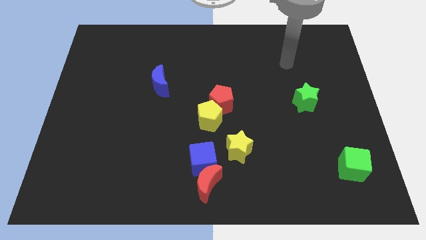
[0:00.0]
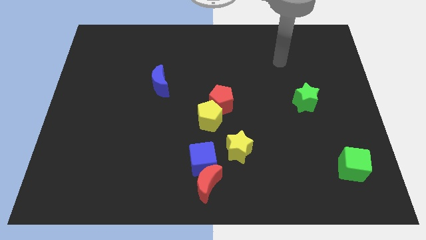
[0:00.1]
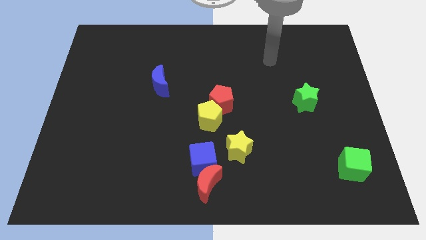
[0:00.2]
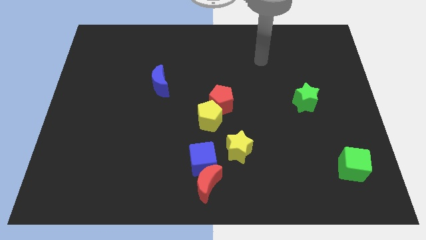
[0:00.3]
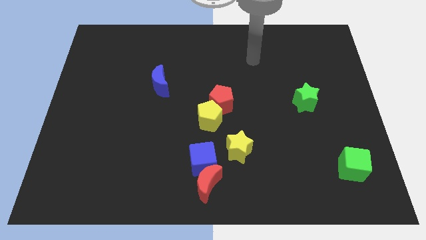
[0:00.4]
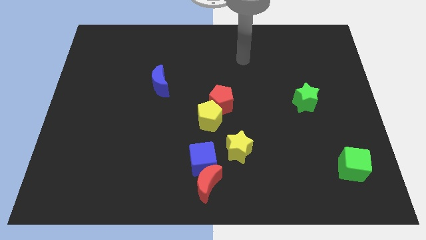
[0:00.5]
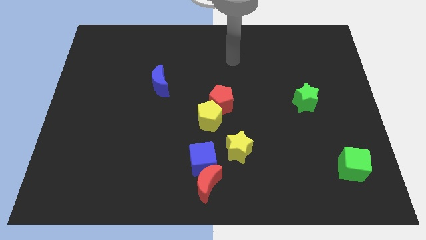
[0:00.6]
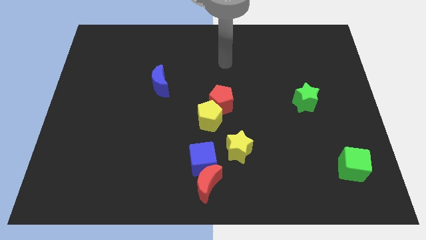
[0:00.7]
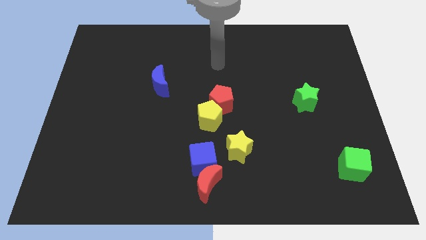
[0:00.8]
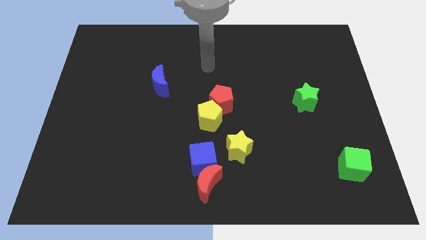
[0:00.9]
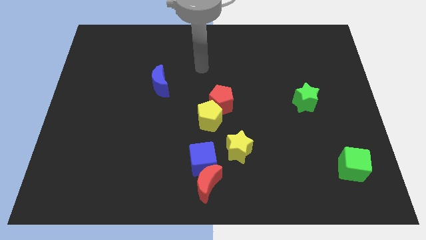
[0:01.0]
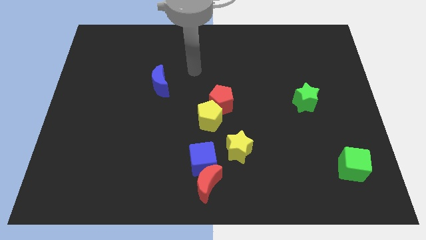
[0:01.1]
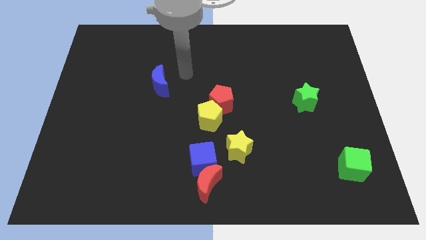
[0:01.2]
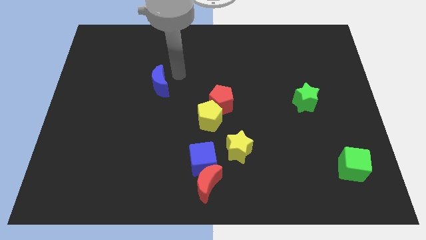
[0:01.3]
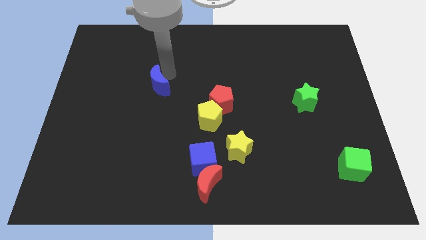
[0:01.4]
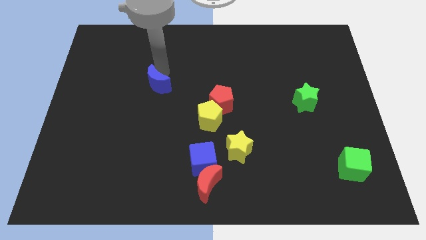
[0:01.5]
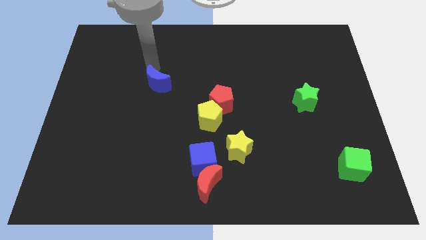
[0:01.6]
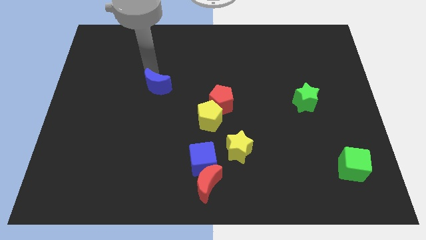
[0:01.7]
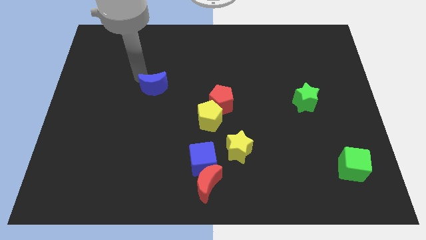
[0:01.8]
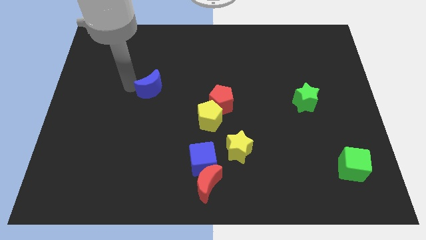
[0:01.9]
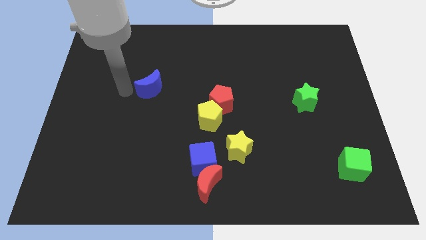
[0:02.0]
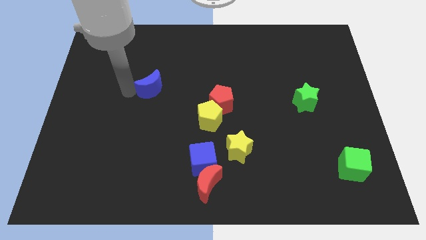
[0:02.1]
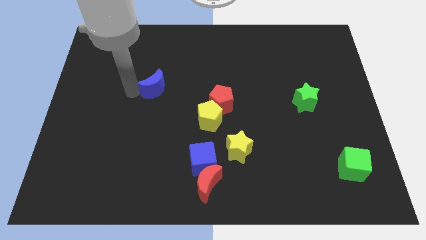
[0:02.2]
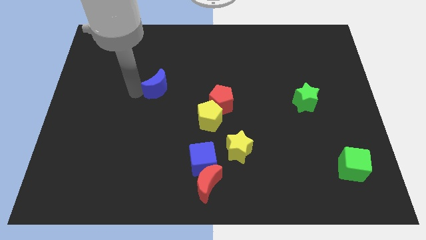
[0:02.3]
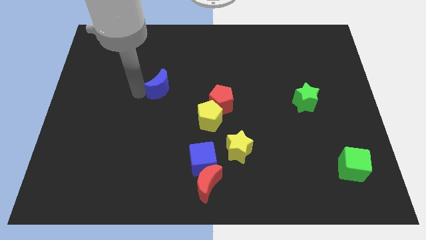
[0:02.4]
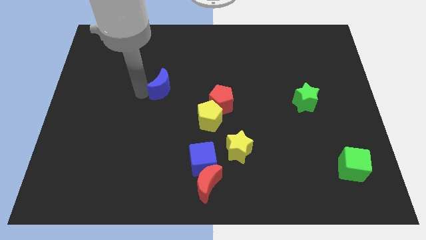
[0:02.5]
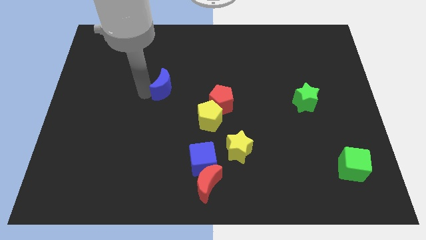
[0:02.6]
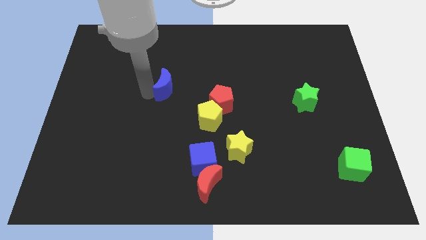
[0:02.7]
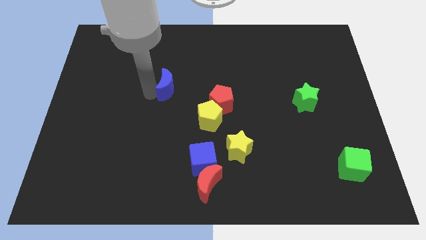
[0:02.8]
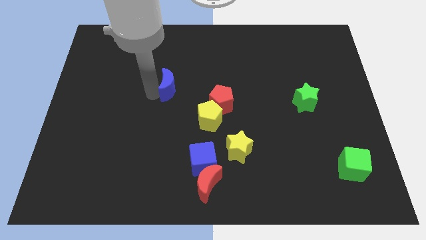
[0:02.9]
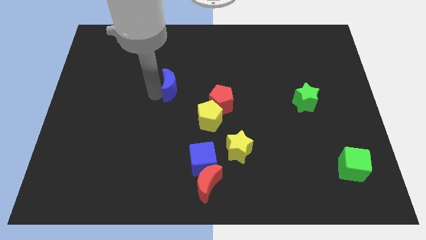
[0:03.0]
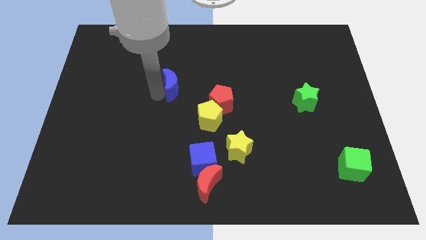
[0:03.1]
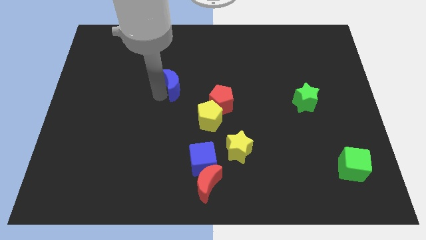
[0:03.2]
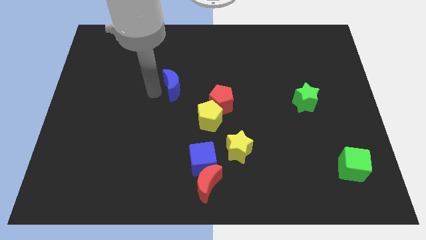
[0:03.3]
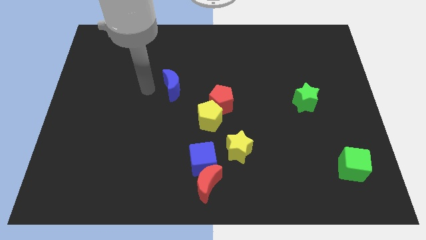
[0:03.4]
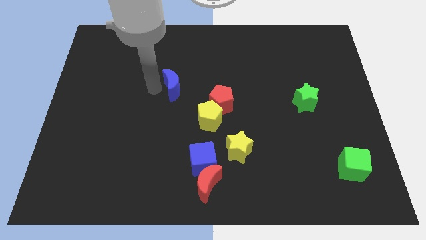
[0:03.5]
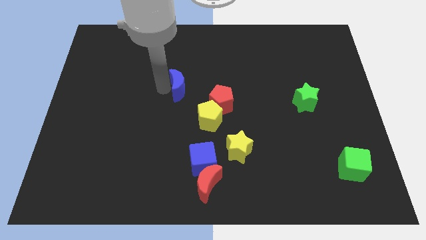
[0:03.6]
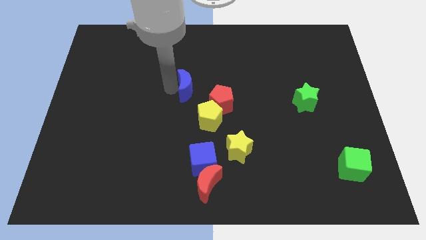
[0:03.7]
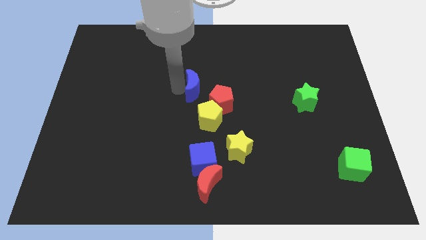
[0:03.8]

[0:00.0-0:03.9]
slide the blue moon right a little bit

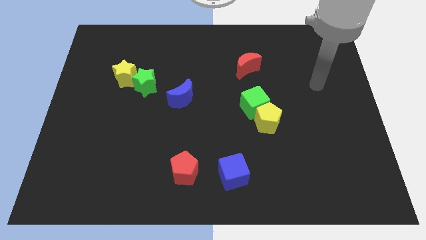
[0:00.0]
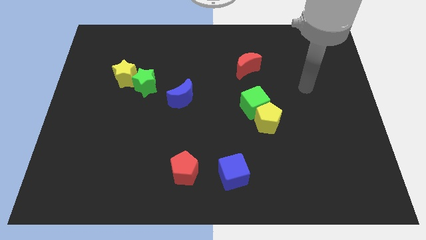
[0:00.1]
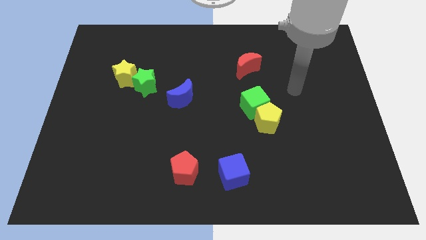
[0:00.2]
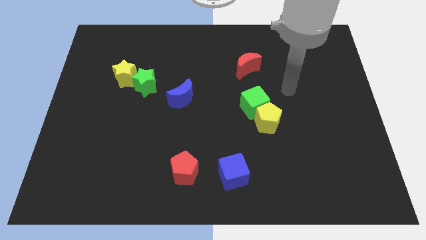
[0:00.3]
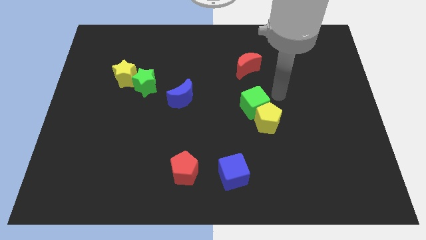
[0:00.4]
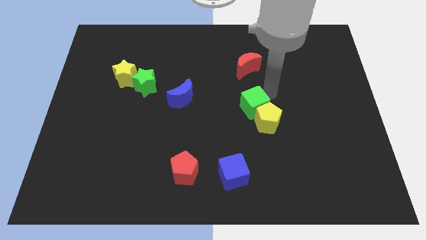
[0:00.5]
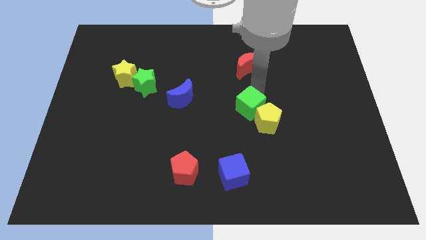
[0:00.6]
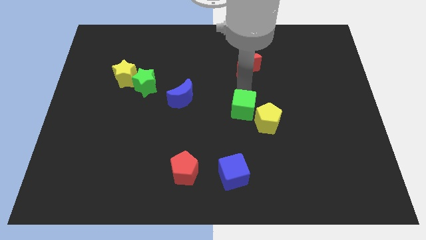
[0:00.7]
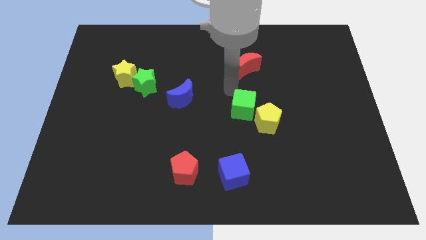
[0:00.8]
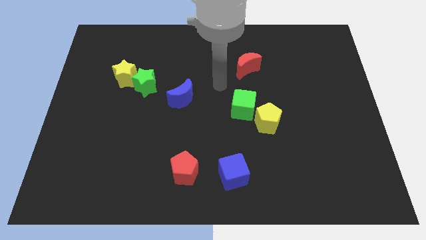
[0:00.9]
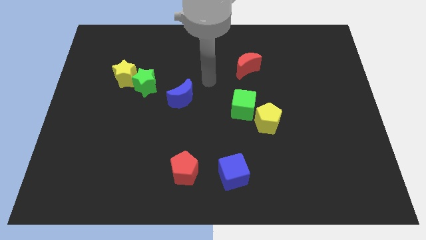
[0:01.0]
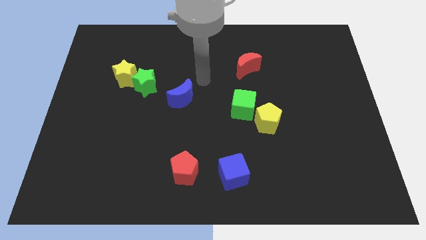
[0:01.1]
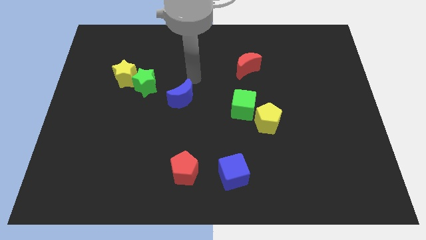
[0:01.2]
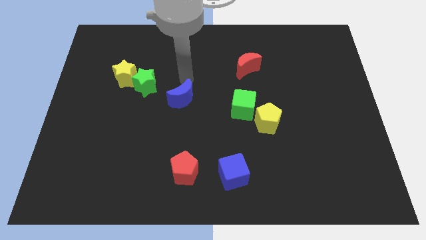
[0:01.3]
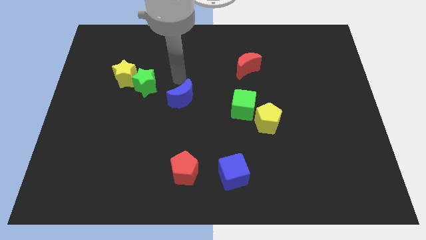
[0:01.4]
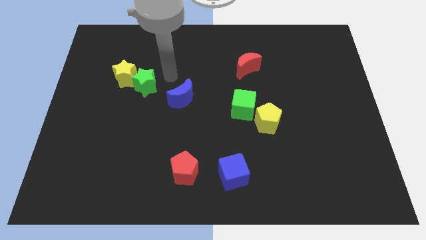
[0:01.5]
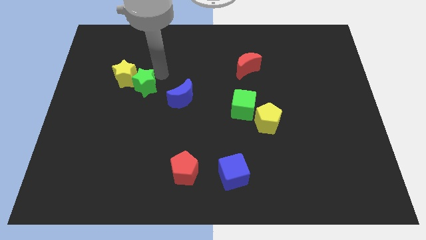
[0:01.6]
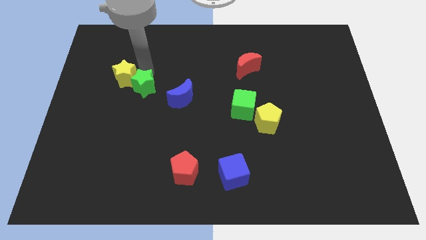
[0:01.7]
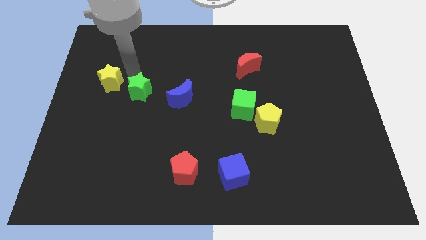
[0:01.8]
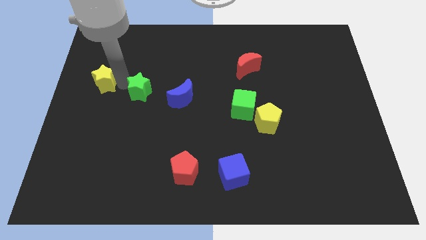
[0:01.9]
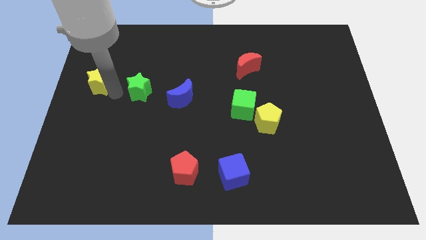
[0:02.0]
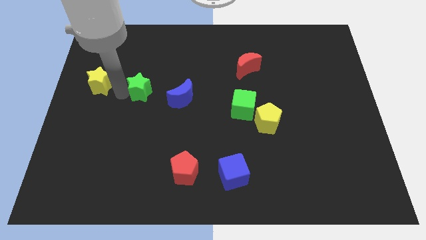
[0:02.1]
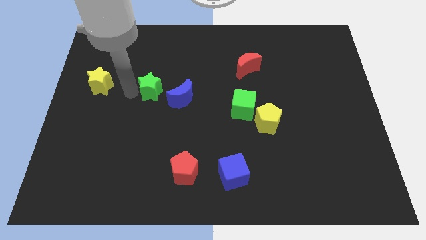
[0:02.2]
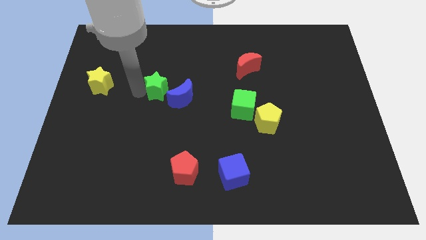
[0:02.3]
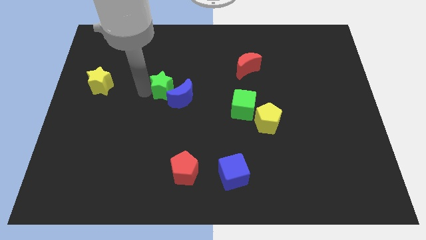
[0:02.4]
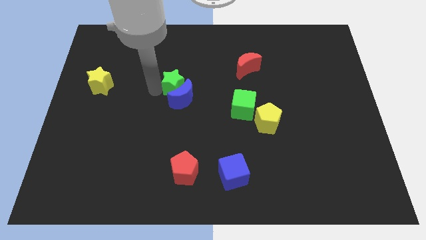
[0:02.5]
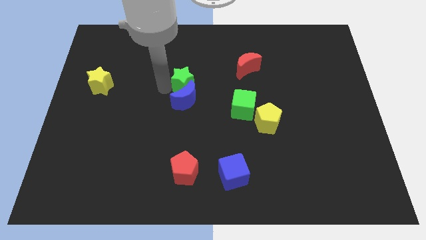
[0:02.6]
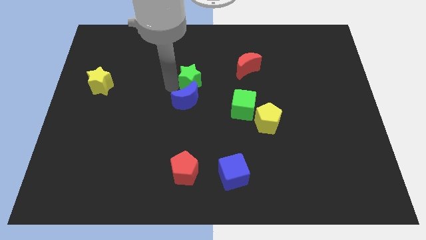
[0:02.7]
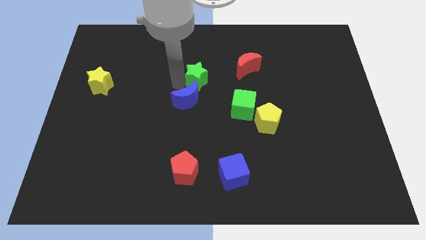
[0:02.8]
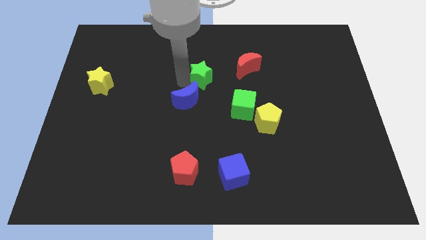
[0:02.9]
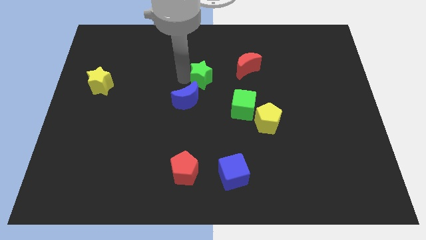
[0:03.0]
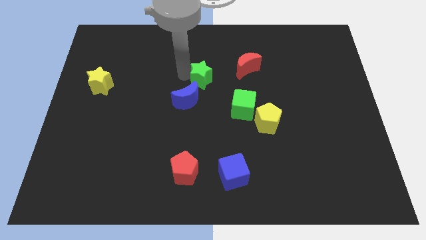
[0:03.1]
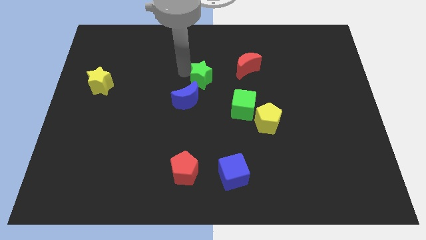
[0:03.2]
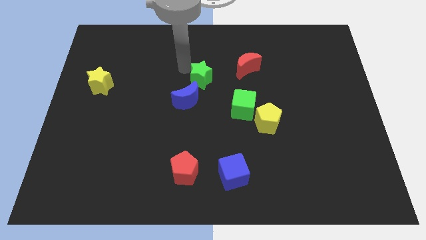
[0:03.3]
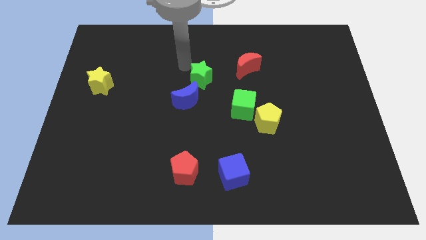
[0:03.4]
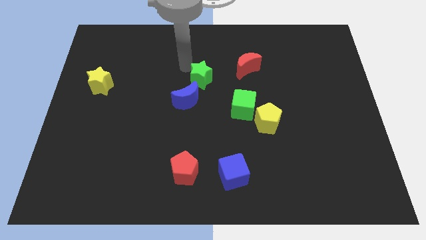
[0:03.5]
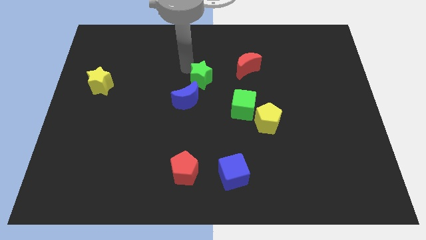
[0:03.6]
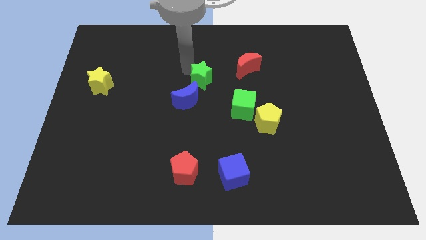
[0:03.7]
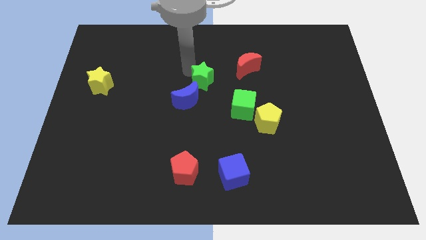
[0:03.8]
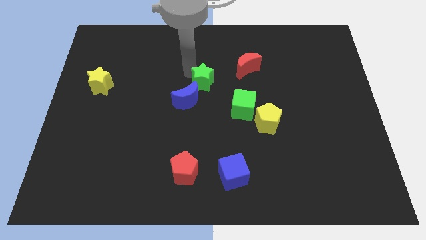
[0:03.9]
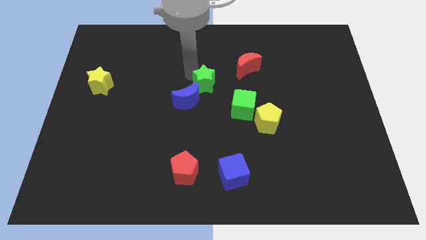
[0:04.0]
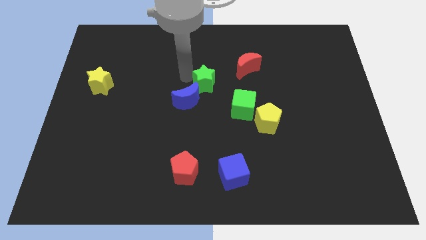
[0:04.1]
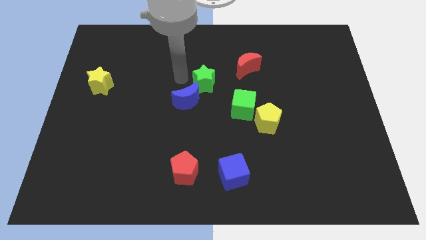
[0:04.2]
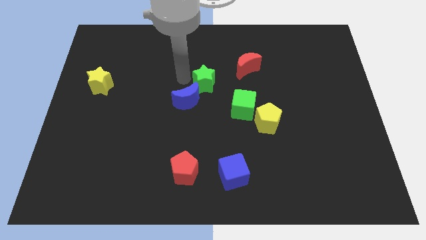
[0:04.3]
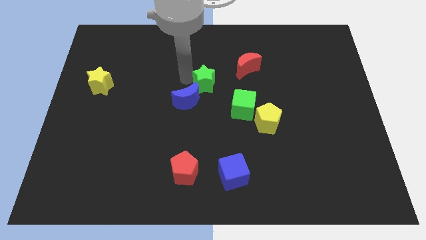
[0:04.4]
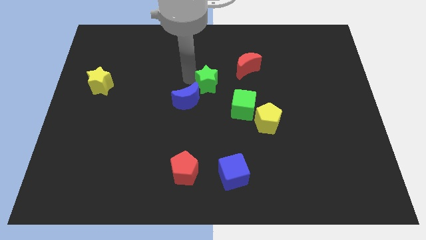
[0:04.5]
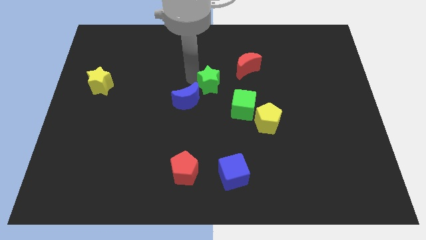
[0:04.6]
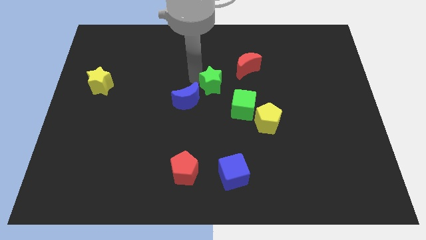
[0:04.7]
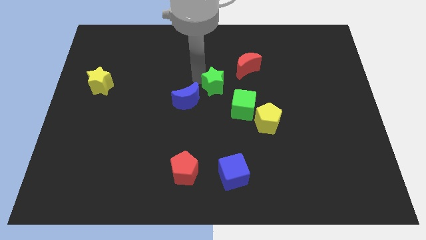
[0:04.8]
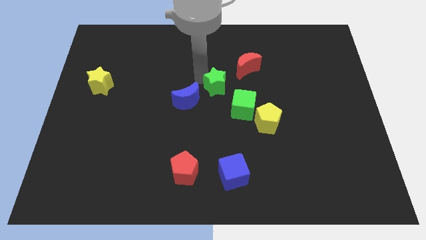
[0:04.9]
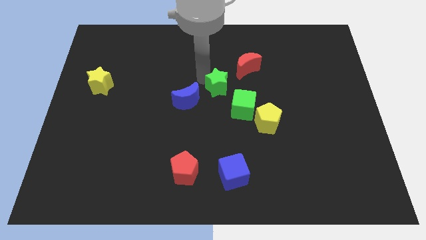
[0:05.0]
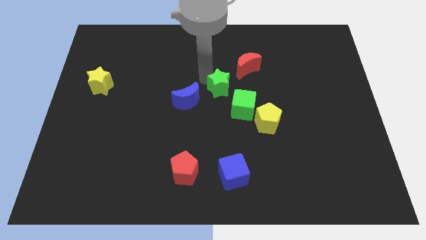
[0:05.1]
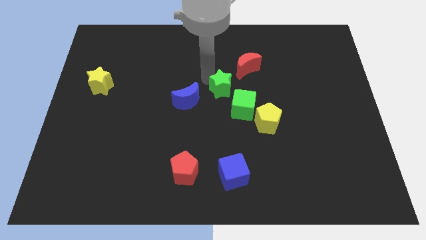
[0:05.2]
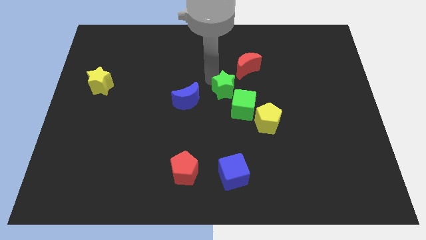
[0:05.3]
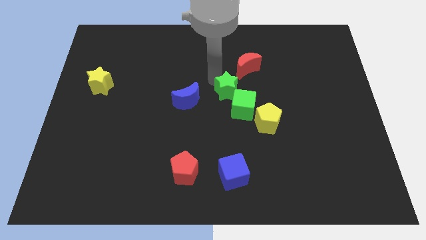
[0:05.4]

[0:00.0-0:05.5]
move the green star to the right
